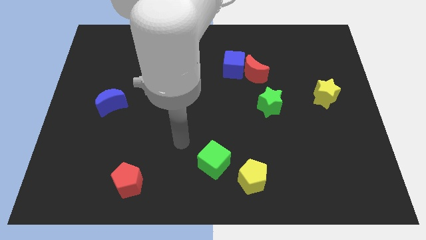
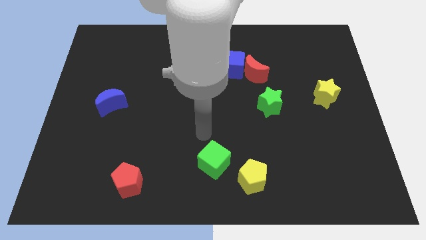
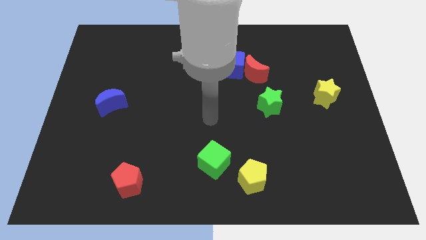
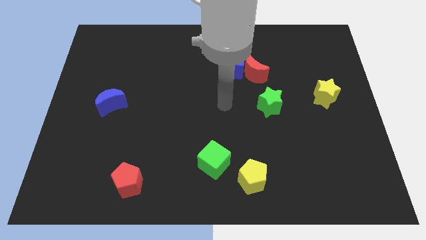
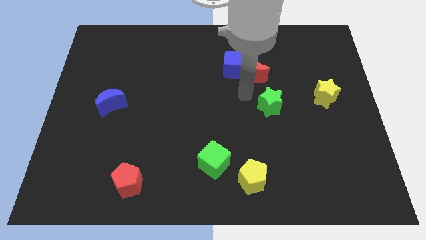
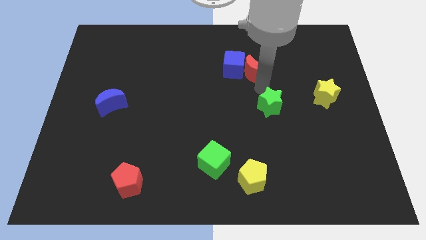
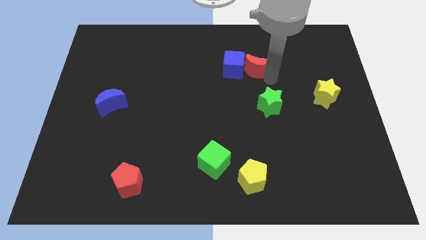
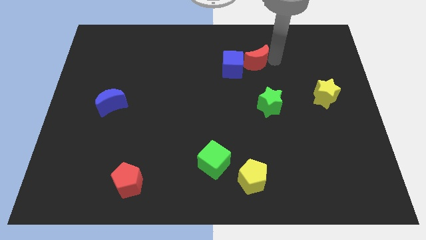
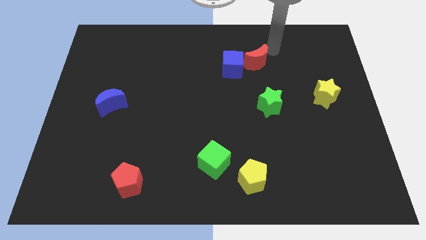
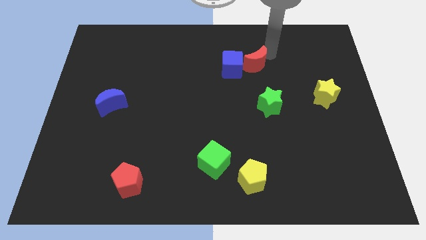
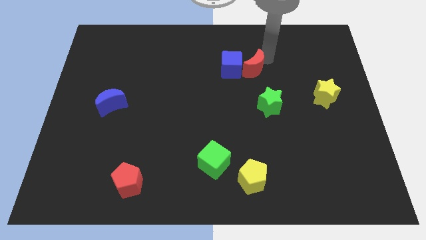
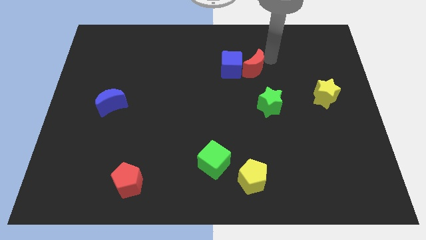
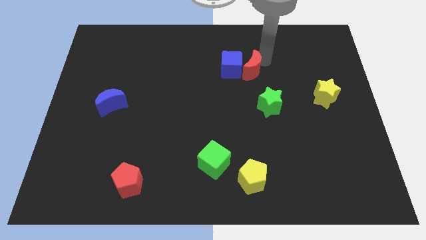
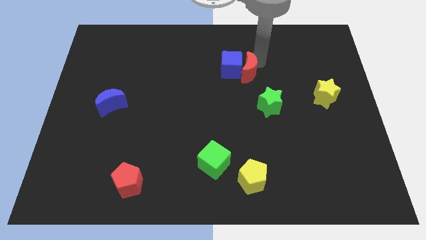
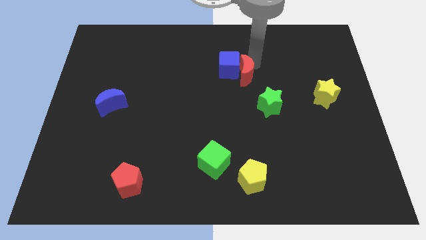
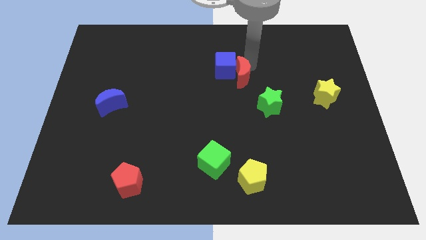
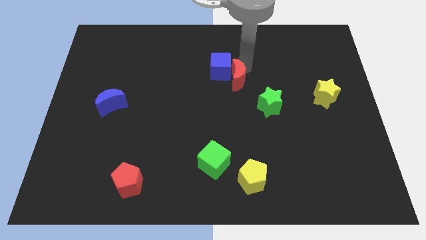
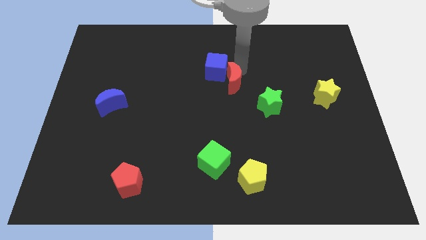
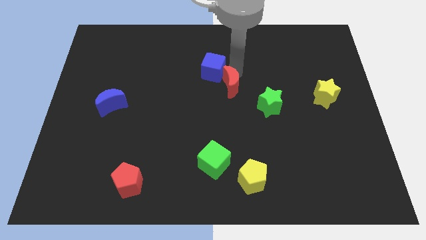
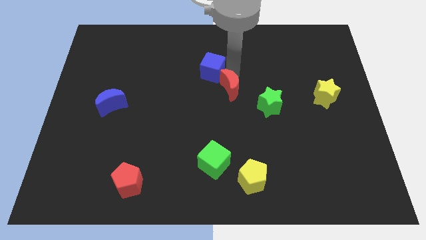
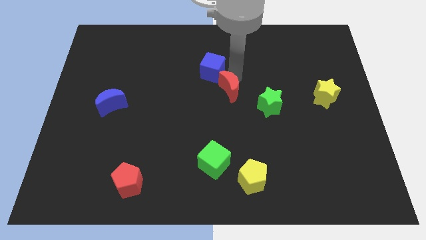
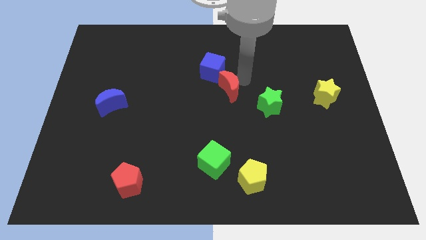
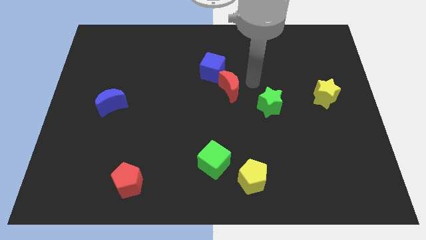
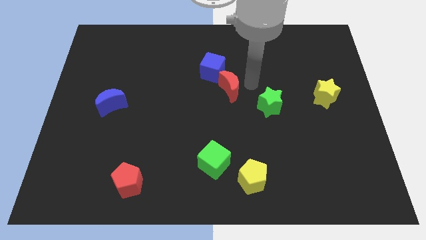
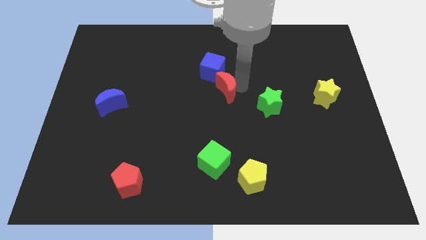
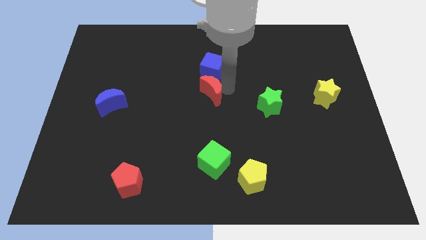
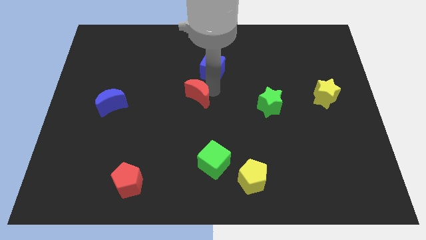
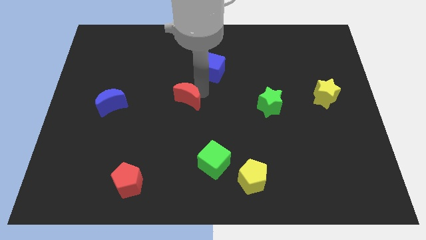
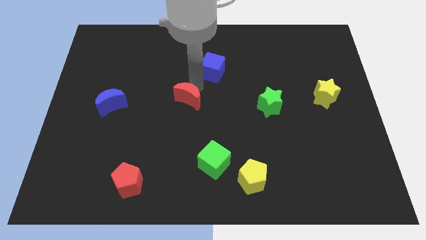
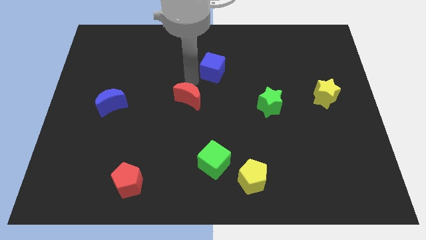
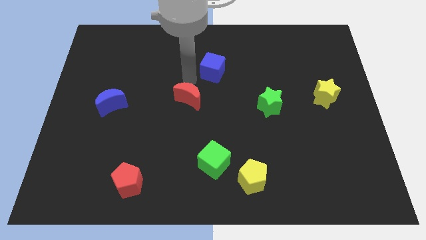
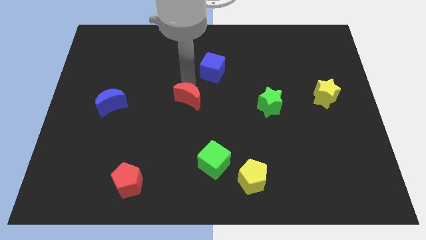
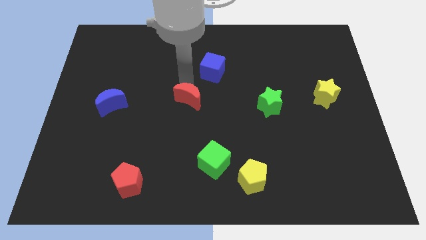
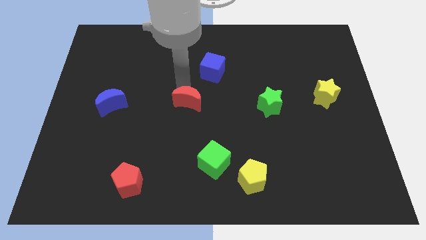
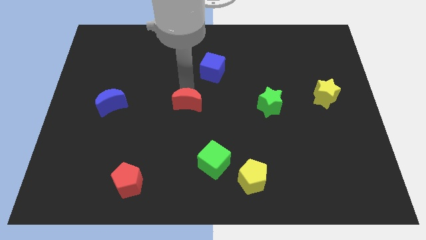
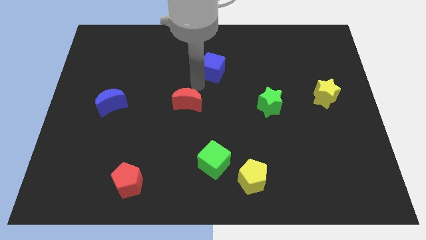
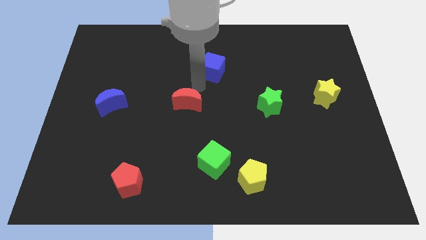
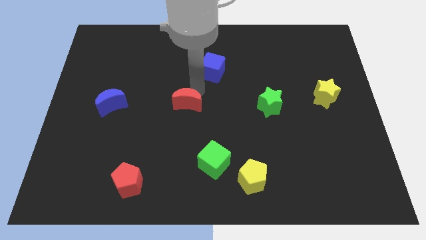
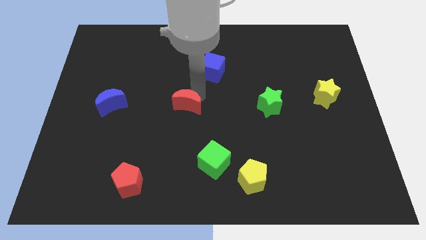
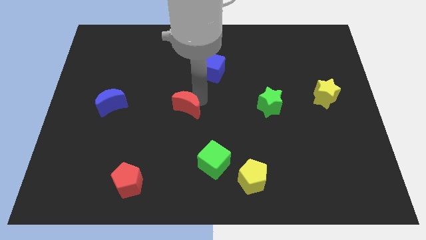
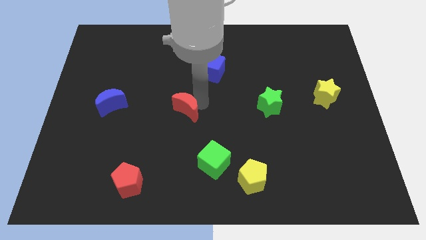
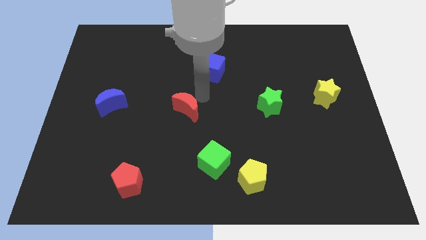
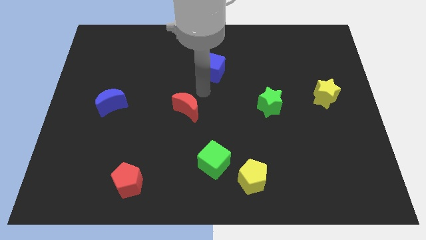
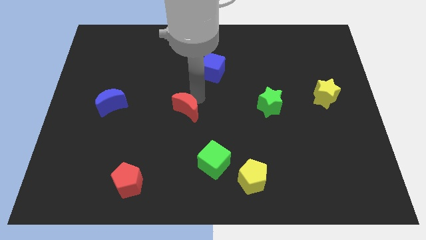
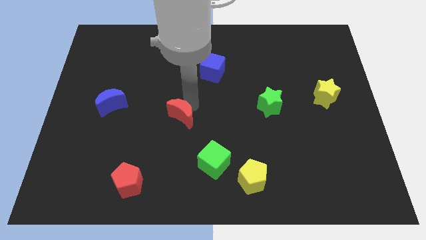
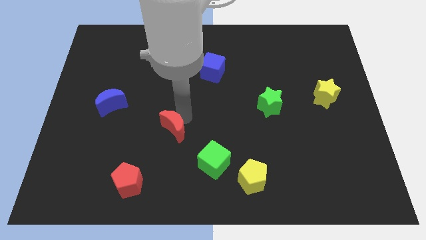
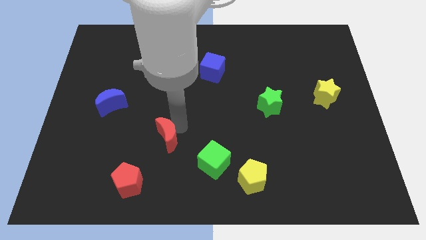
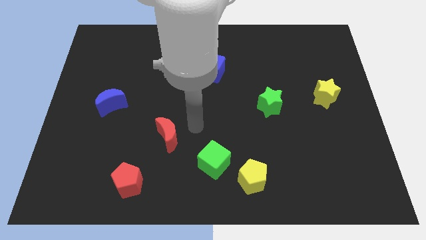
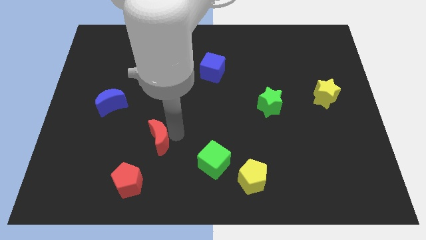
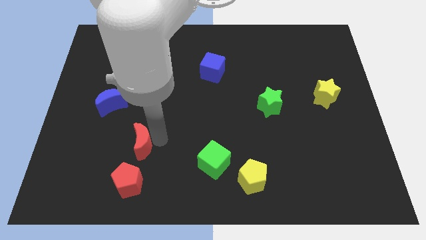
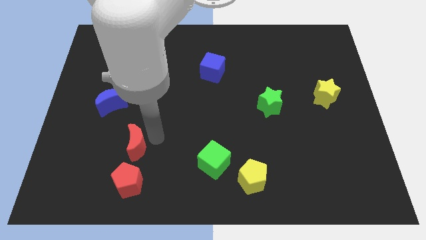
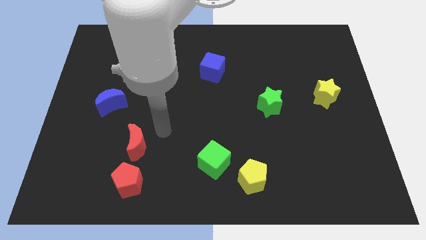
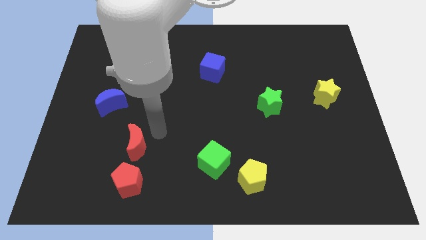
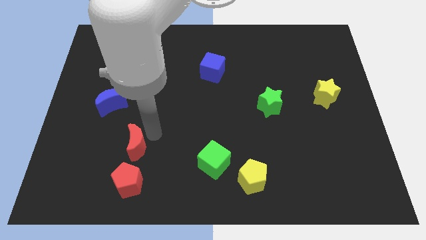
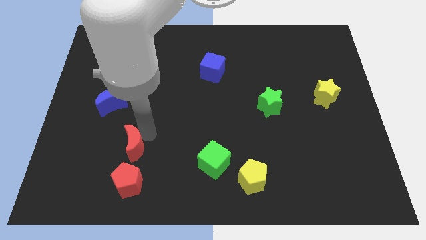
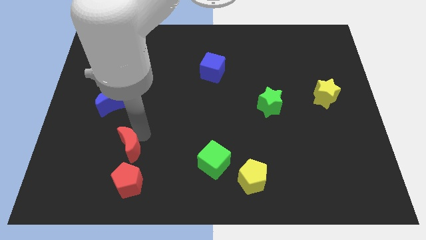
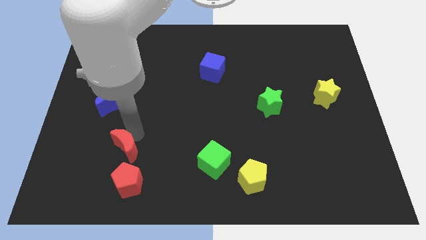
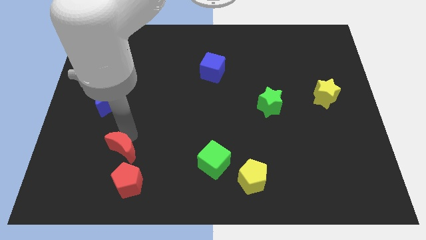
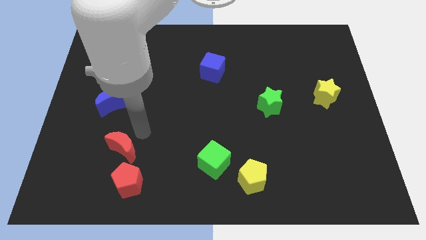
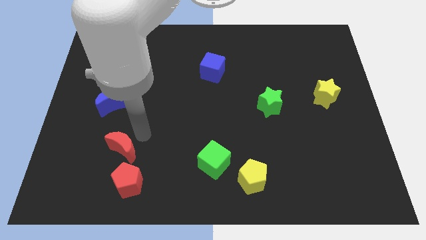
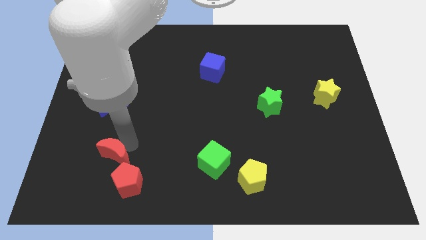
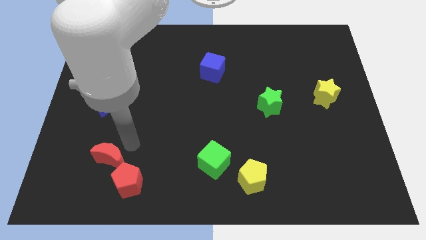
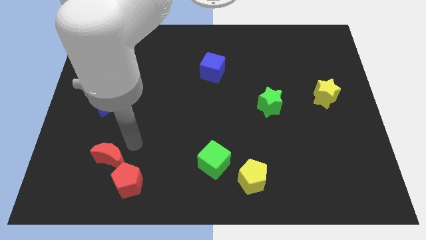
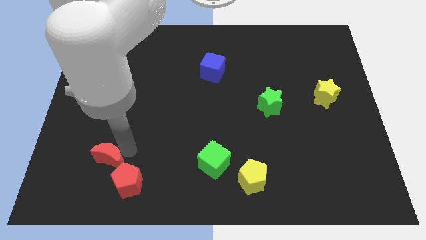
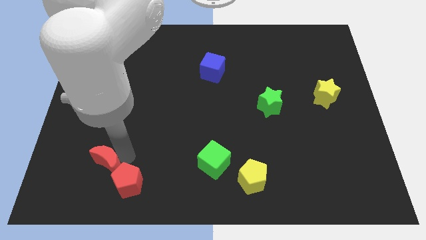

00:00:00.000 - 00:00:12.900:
slide the red moon to the left side of the red pentagon

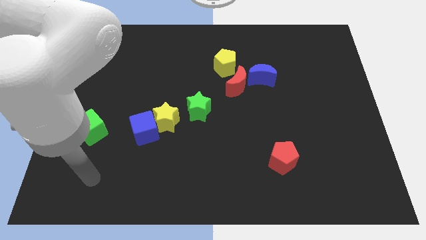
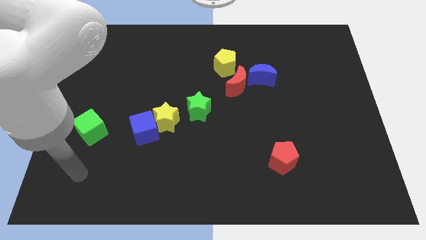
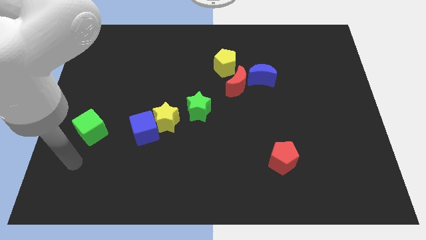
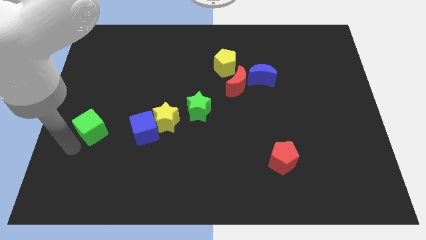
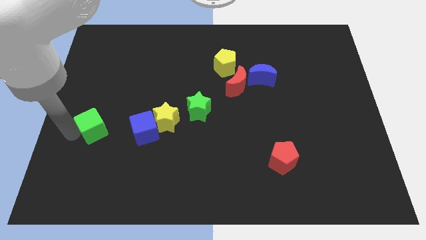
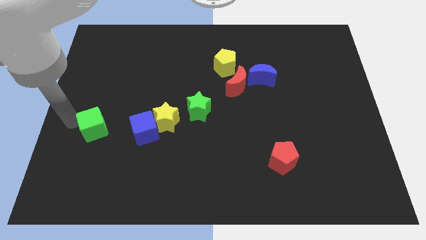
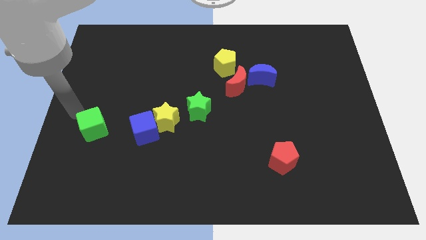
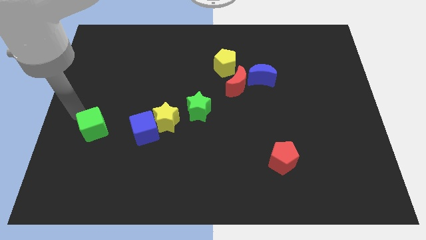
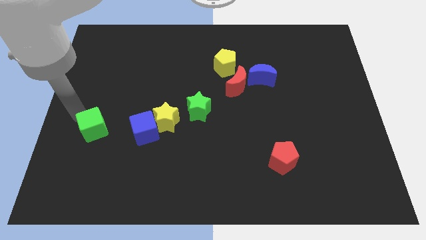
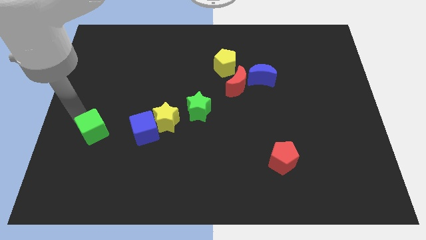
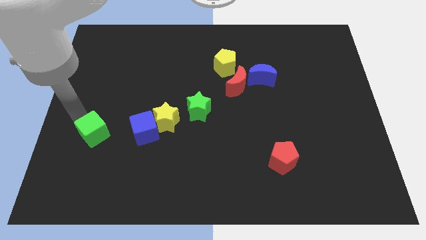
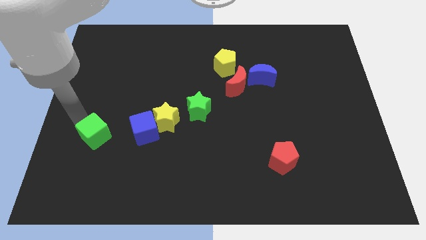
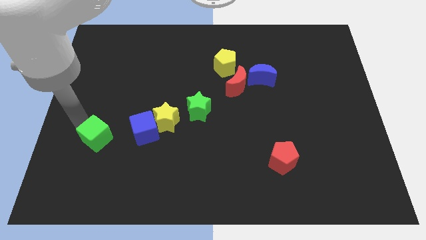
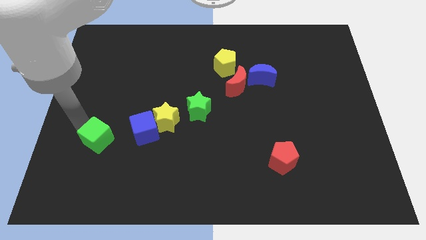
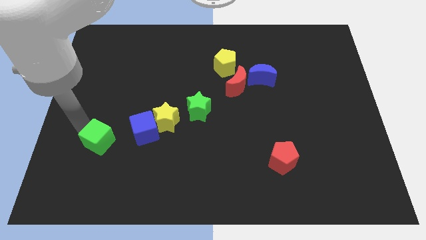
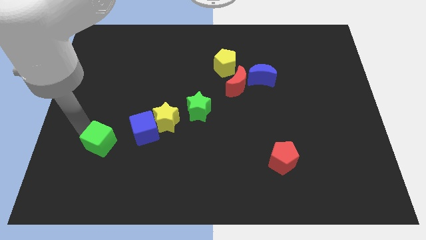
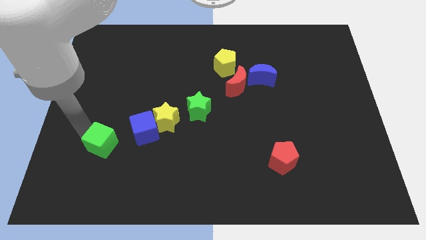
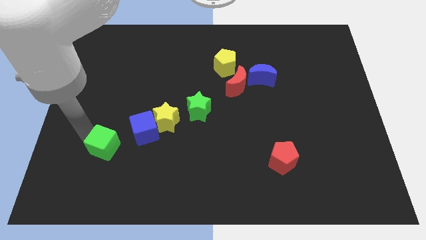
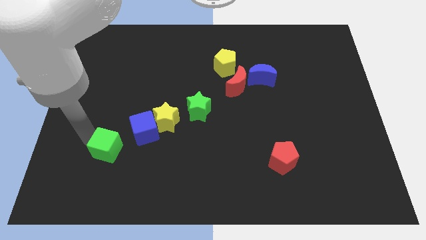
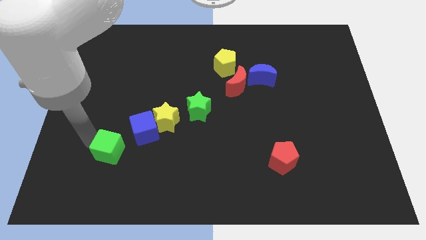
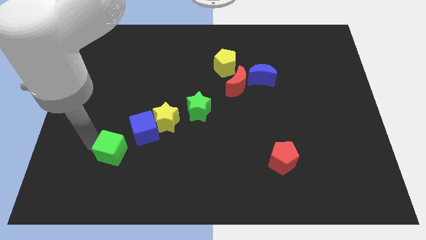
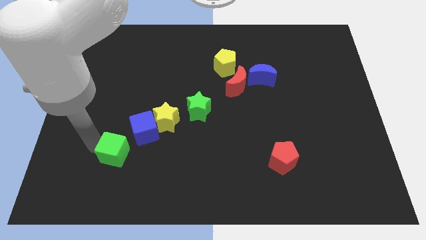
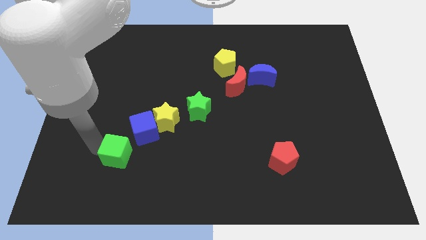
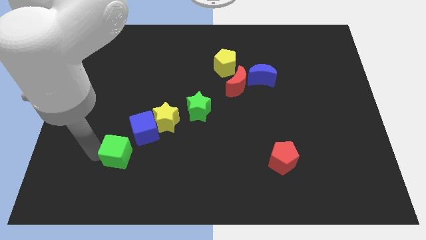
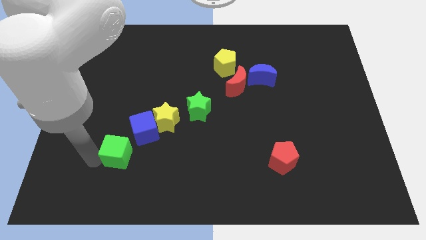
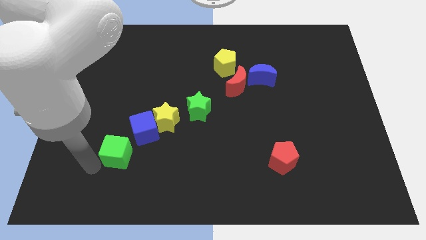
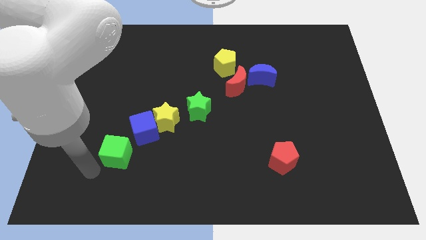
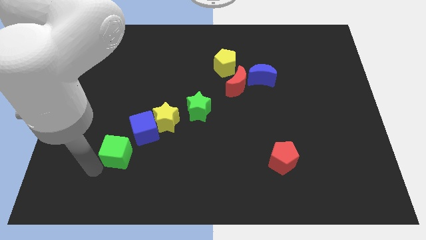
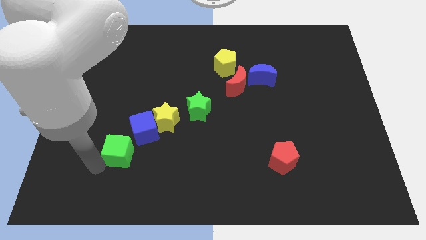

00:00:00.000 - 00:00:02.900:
put the green cube to the bottom left of the yellow star
